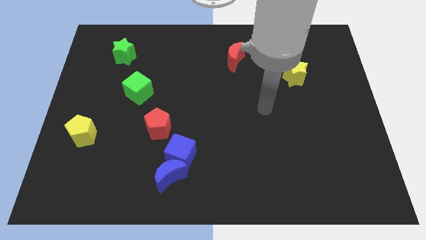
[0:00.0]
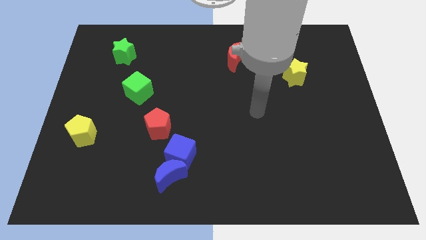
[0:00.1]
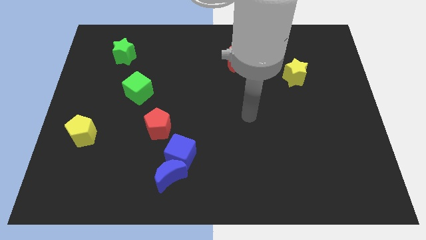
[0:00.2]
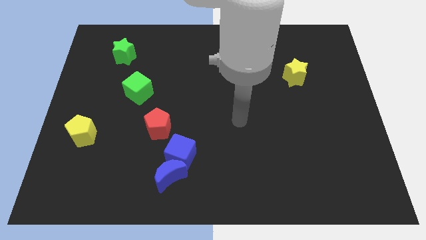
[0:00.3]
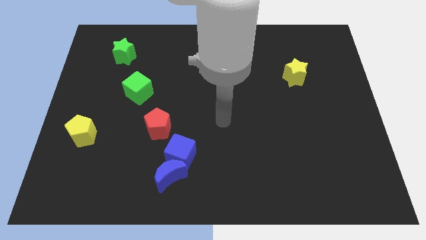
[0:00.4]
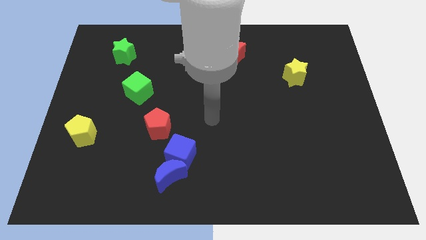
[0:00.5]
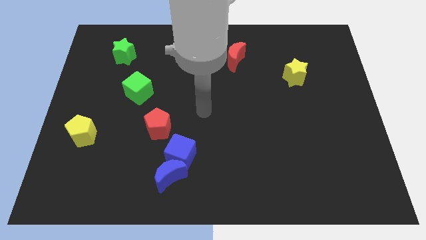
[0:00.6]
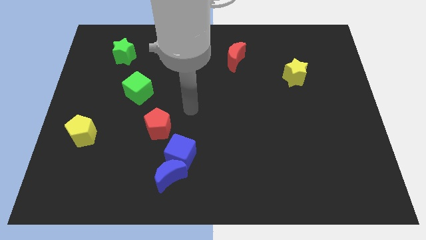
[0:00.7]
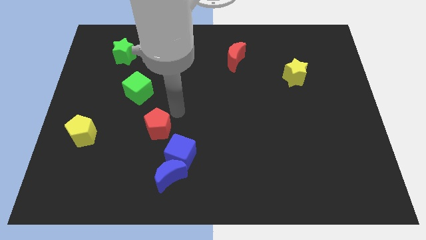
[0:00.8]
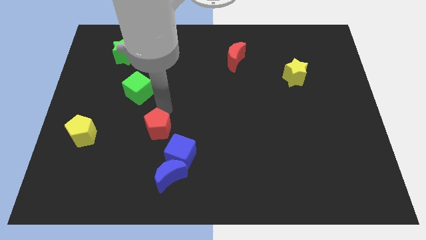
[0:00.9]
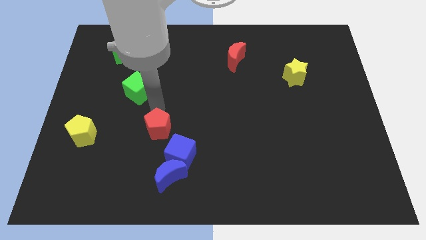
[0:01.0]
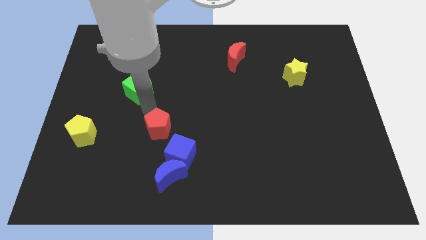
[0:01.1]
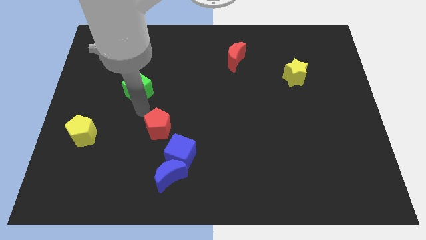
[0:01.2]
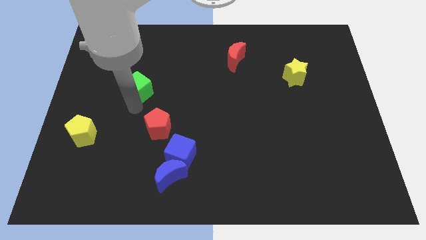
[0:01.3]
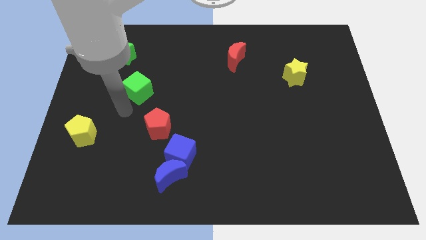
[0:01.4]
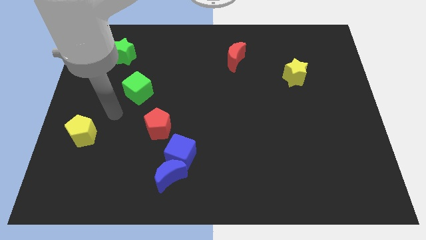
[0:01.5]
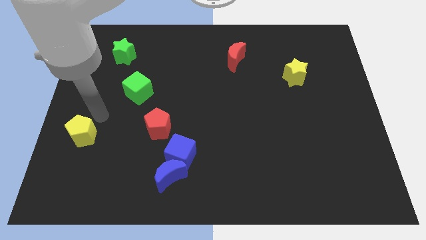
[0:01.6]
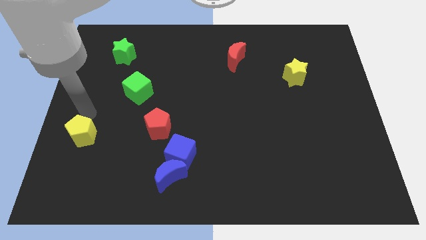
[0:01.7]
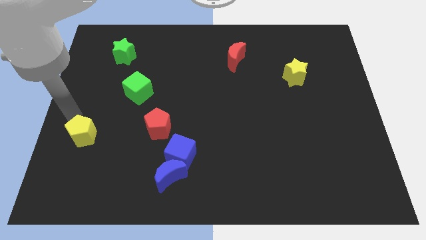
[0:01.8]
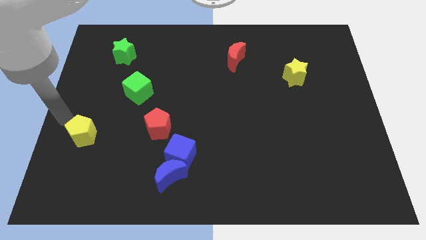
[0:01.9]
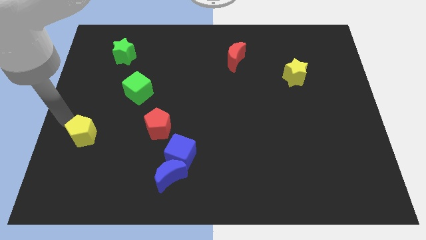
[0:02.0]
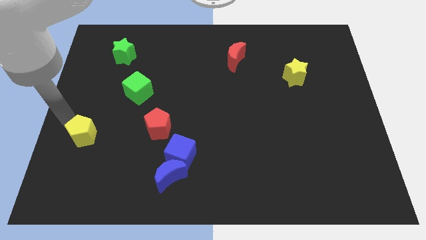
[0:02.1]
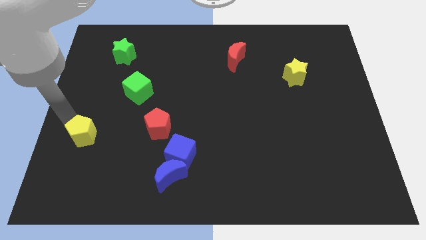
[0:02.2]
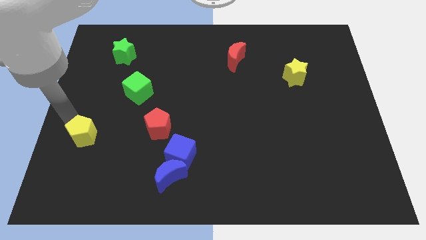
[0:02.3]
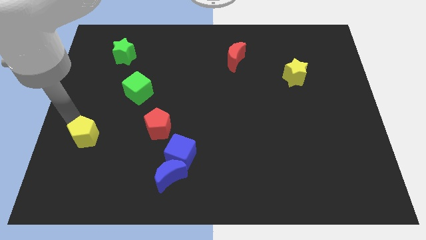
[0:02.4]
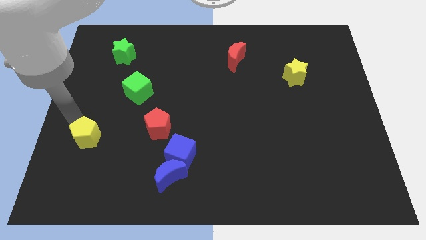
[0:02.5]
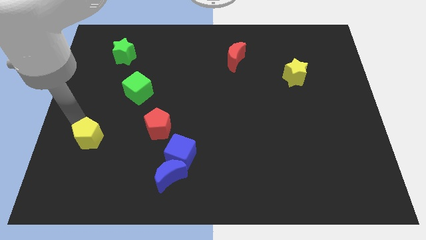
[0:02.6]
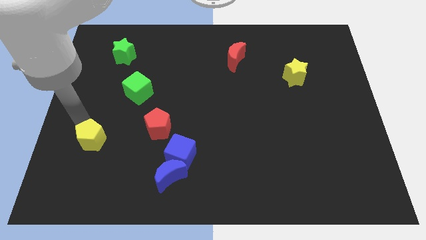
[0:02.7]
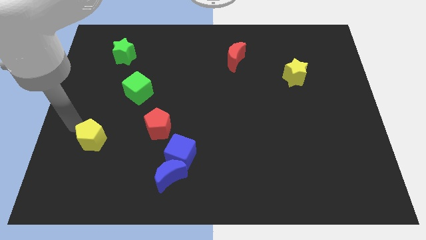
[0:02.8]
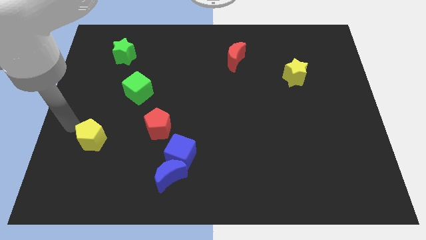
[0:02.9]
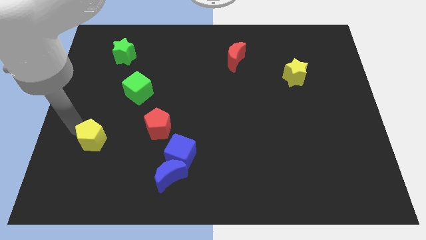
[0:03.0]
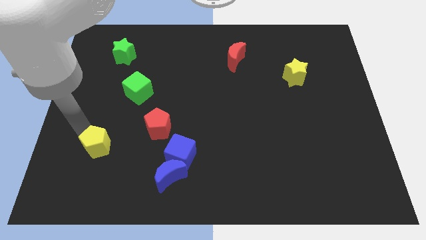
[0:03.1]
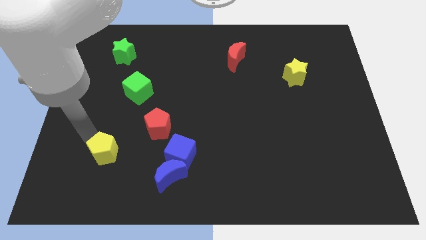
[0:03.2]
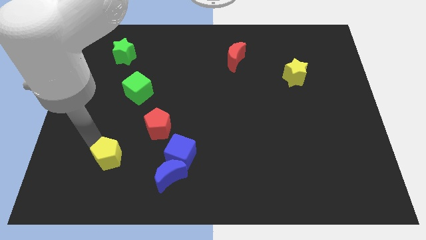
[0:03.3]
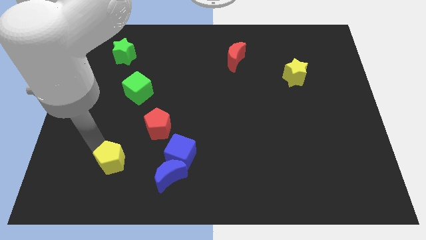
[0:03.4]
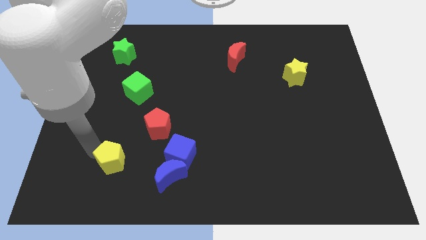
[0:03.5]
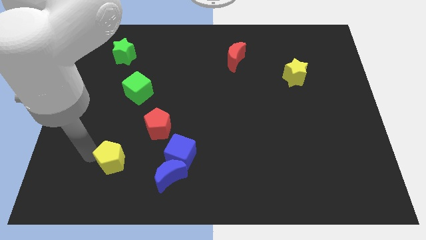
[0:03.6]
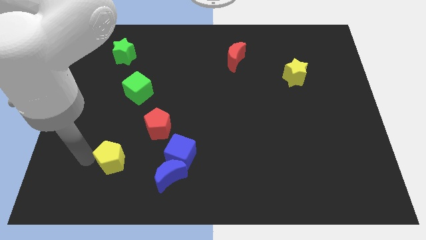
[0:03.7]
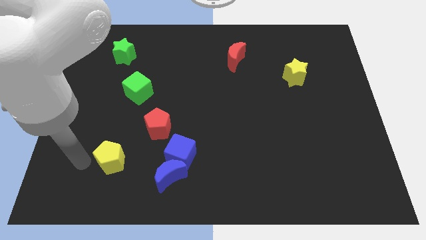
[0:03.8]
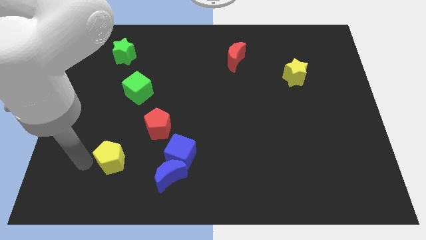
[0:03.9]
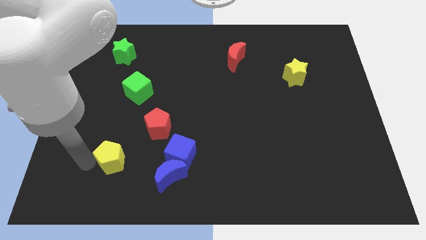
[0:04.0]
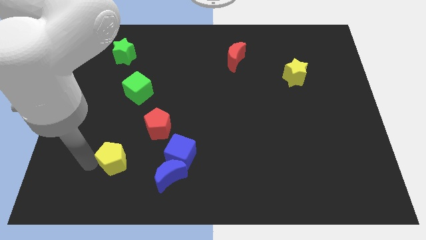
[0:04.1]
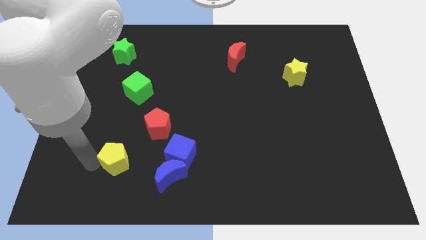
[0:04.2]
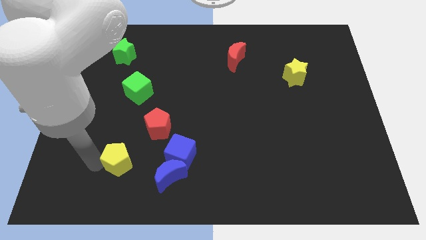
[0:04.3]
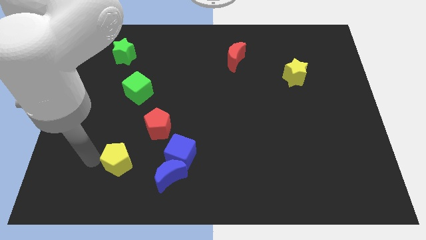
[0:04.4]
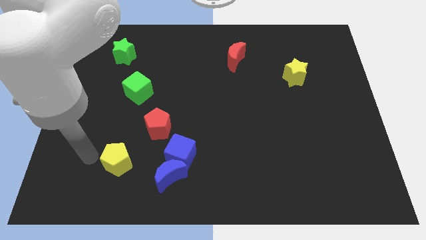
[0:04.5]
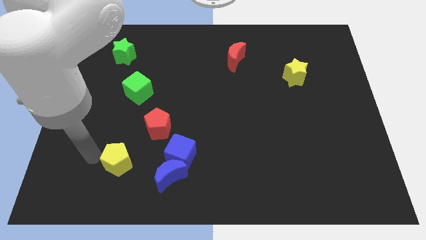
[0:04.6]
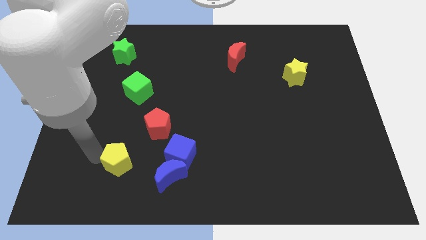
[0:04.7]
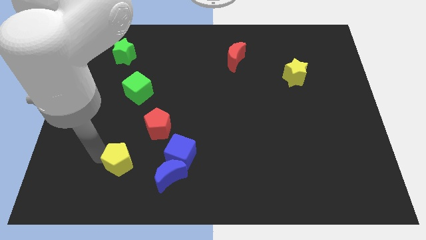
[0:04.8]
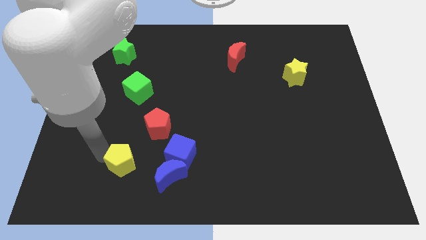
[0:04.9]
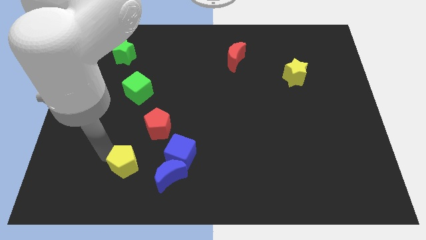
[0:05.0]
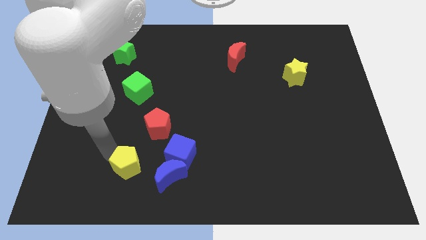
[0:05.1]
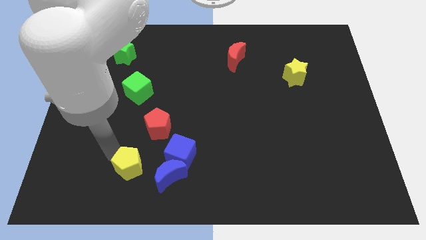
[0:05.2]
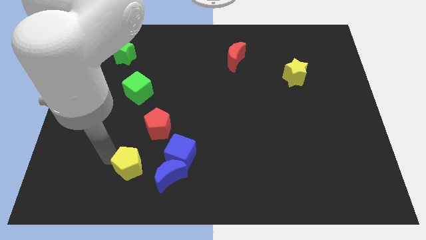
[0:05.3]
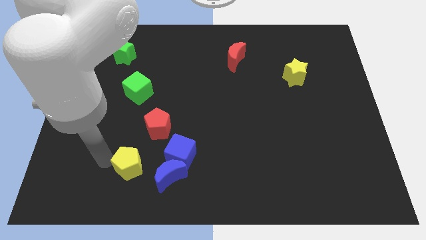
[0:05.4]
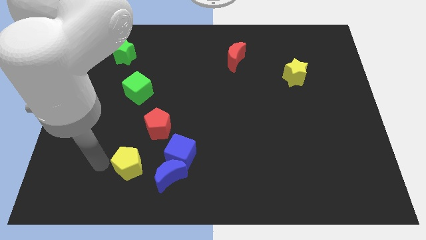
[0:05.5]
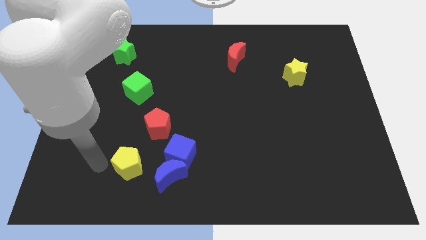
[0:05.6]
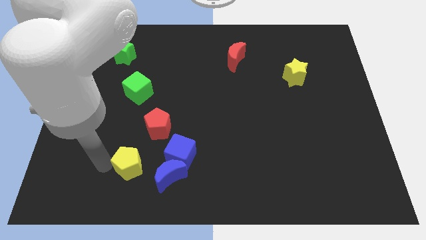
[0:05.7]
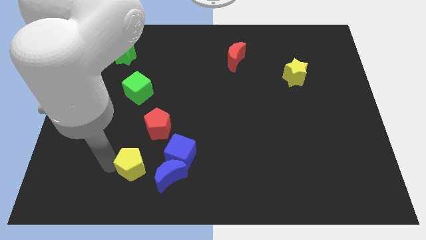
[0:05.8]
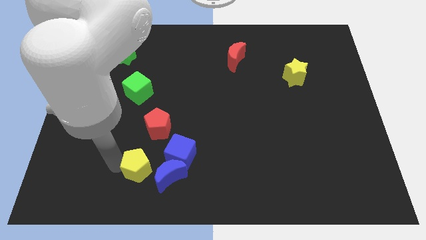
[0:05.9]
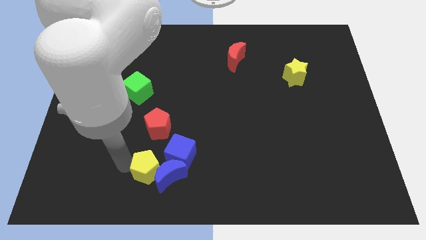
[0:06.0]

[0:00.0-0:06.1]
slide the yellow pentagon close to the blue moon

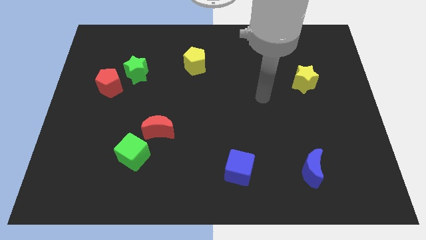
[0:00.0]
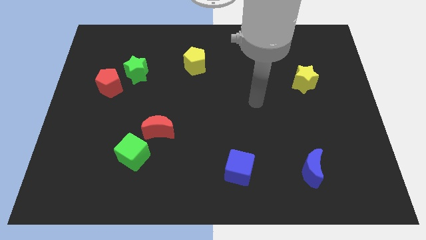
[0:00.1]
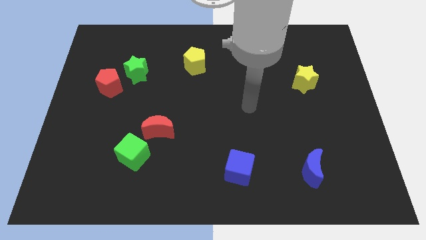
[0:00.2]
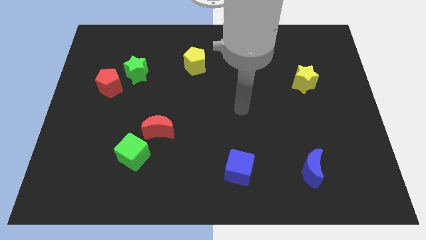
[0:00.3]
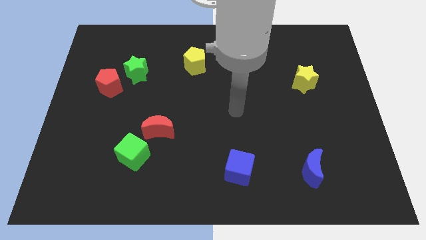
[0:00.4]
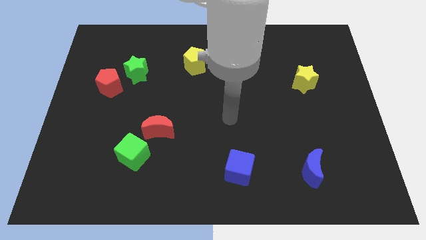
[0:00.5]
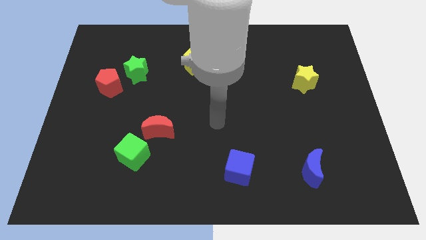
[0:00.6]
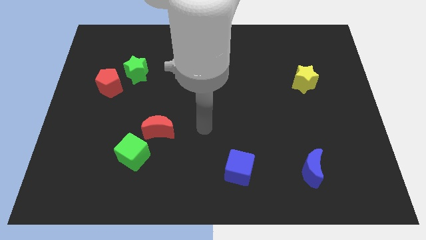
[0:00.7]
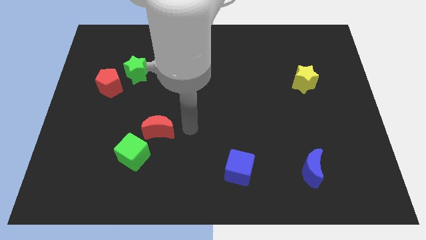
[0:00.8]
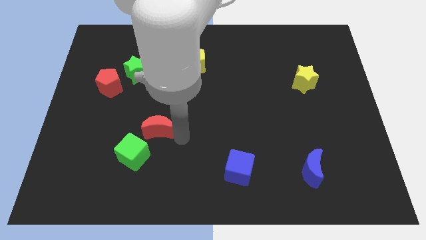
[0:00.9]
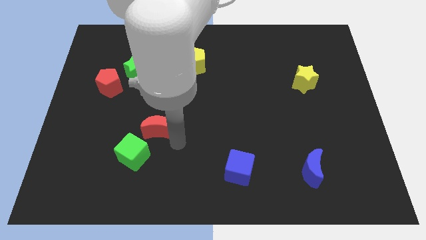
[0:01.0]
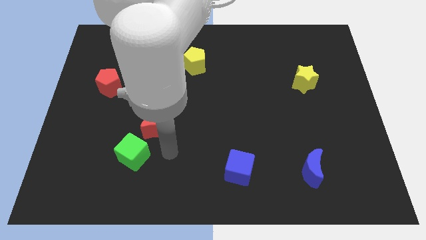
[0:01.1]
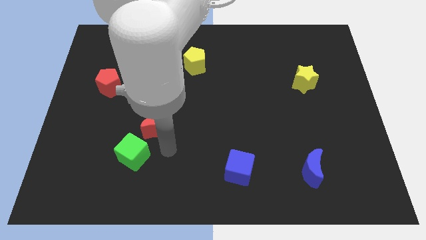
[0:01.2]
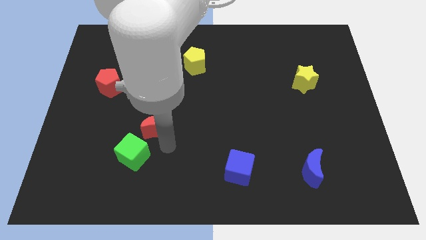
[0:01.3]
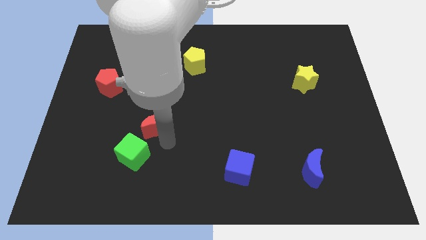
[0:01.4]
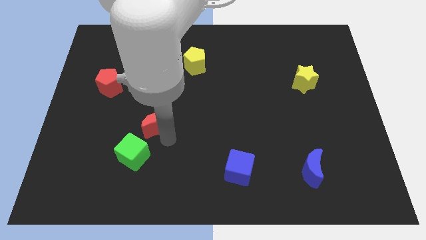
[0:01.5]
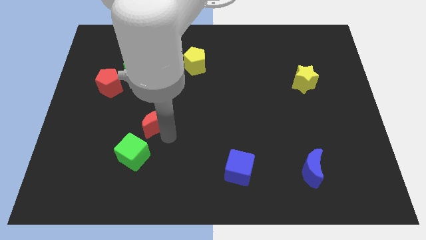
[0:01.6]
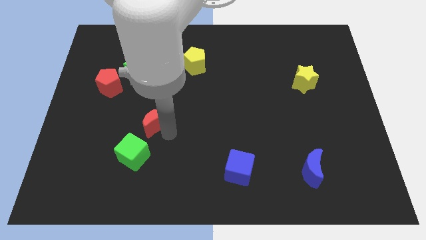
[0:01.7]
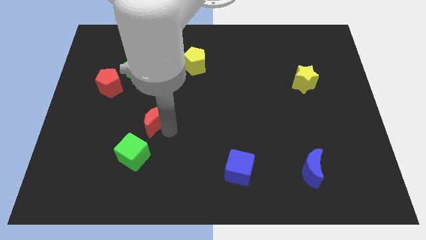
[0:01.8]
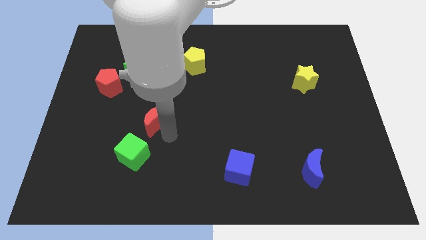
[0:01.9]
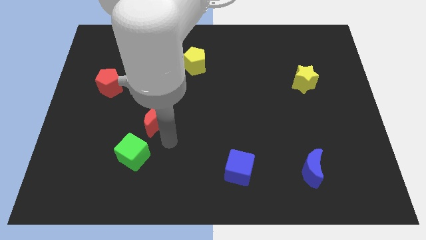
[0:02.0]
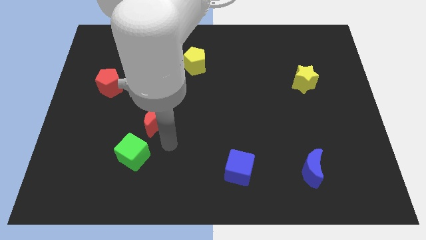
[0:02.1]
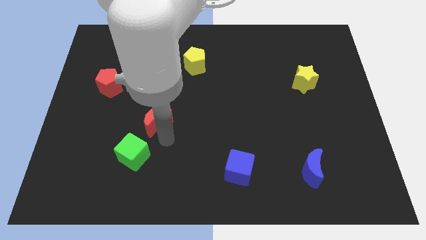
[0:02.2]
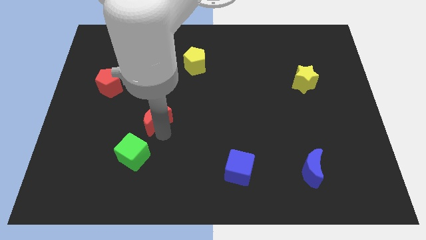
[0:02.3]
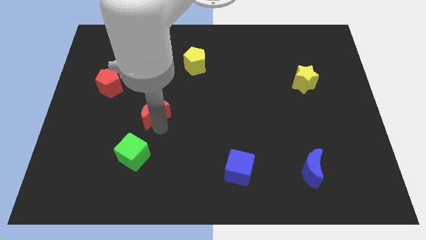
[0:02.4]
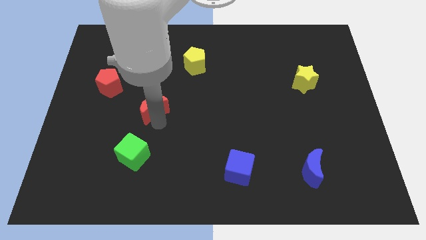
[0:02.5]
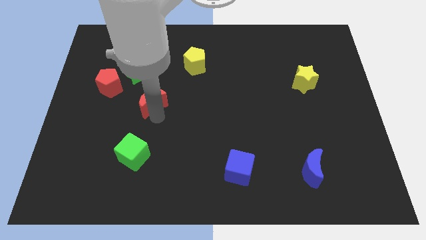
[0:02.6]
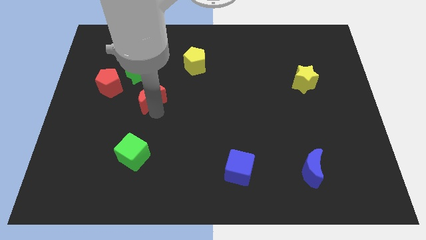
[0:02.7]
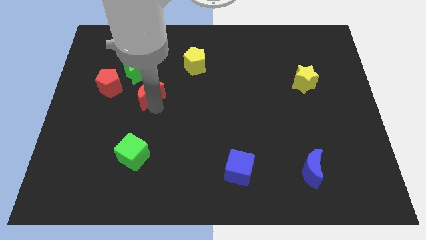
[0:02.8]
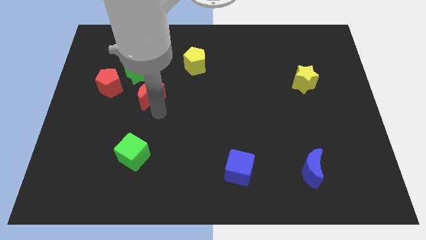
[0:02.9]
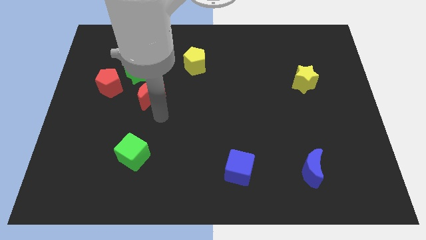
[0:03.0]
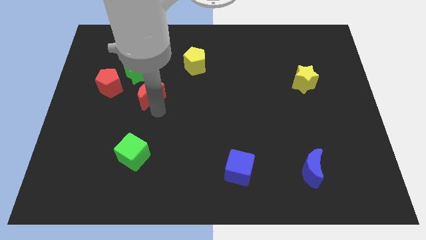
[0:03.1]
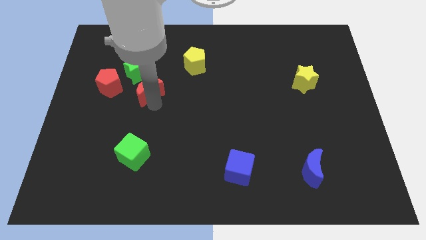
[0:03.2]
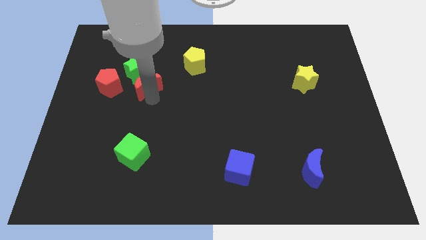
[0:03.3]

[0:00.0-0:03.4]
move the red moon to the green star
